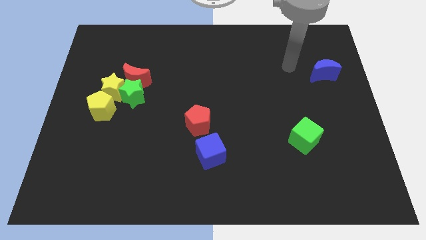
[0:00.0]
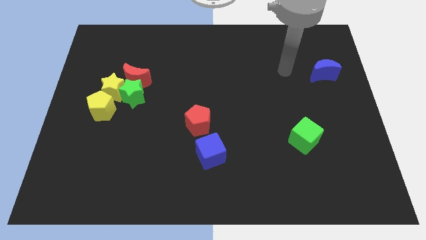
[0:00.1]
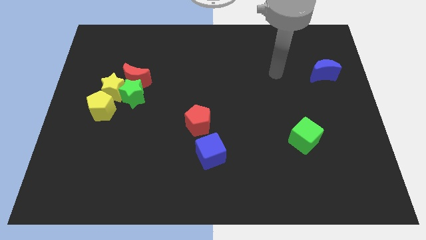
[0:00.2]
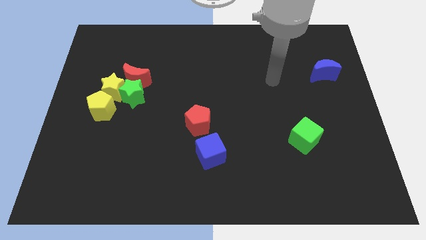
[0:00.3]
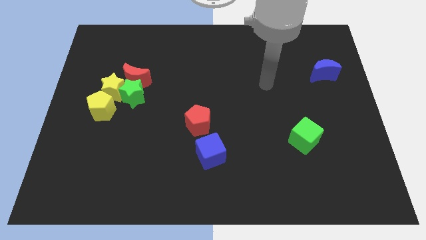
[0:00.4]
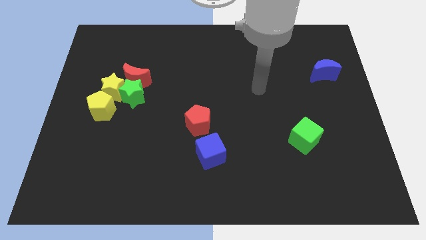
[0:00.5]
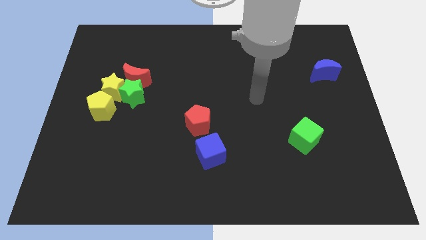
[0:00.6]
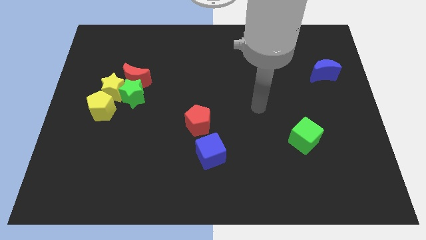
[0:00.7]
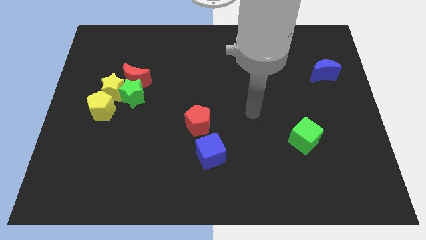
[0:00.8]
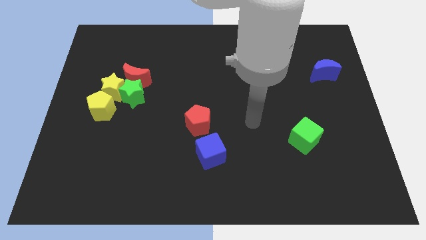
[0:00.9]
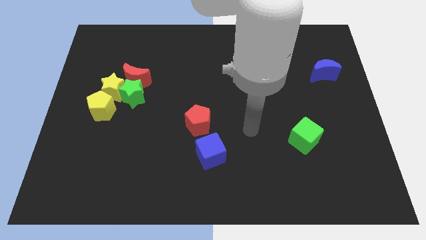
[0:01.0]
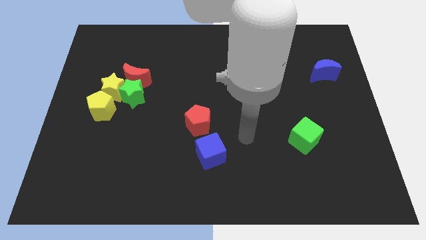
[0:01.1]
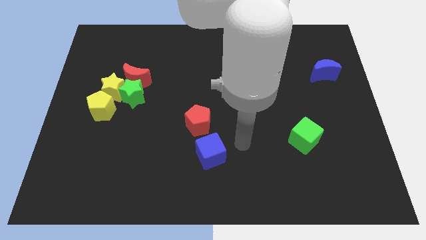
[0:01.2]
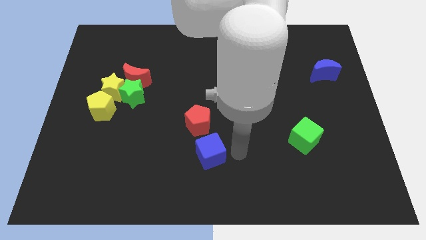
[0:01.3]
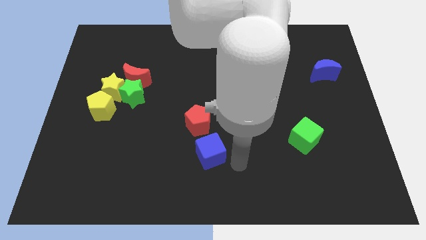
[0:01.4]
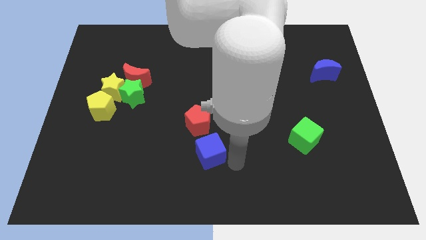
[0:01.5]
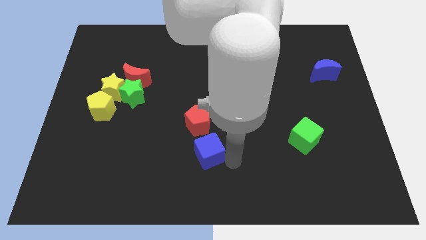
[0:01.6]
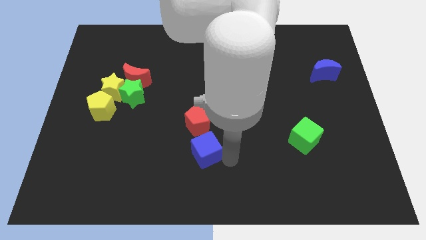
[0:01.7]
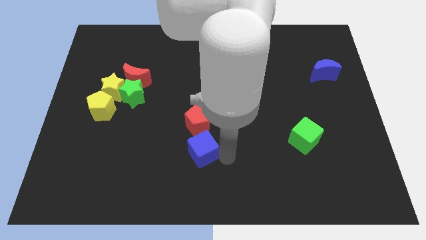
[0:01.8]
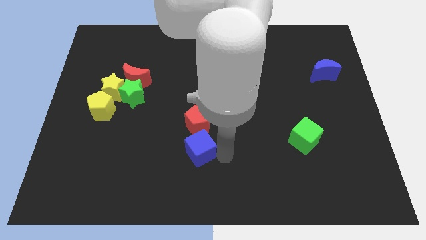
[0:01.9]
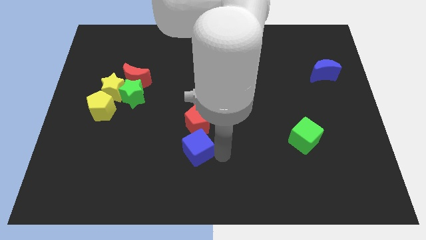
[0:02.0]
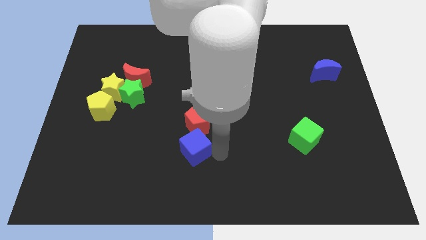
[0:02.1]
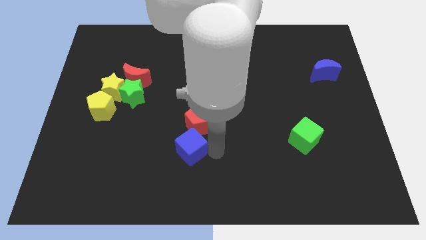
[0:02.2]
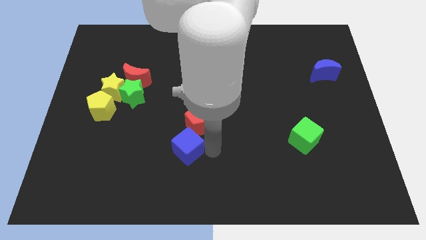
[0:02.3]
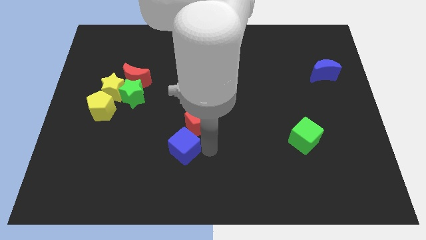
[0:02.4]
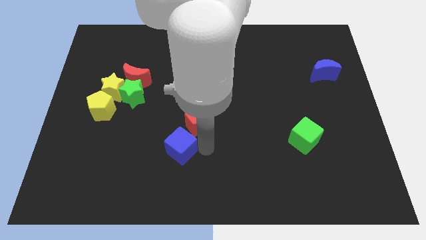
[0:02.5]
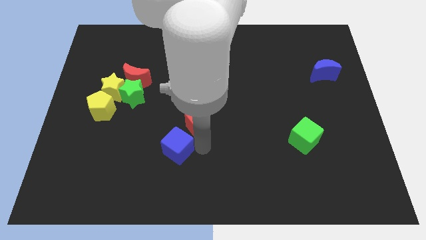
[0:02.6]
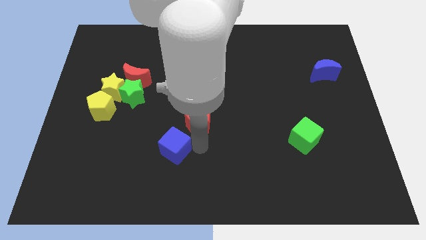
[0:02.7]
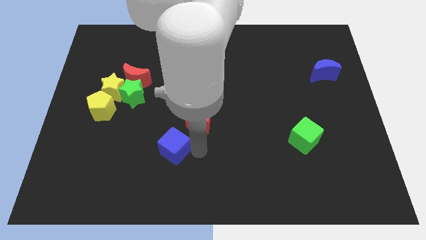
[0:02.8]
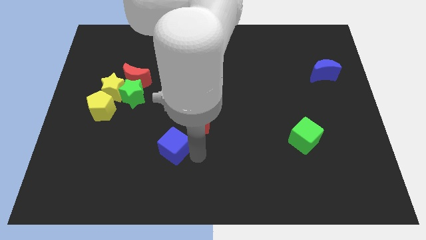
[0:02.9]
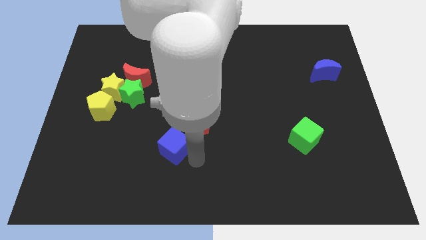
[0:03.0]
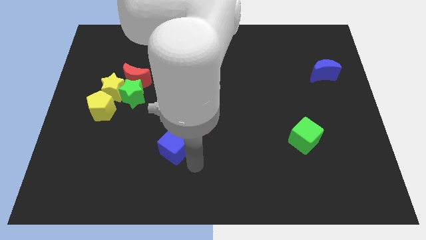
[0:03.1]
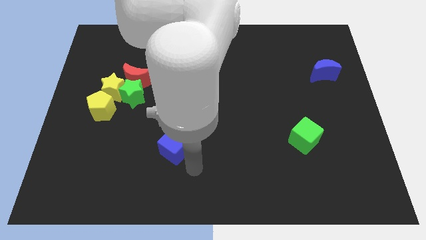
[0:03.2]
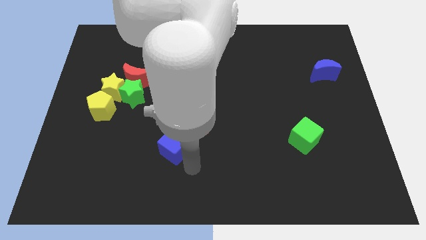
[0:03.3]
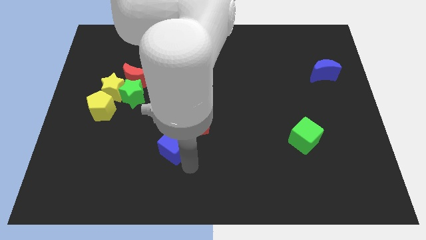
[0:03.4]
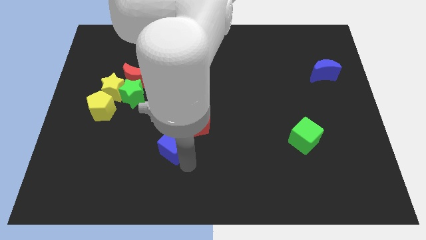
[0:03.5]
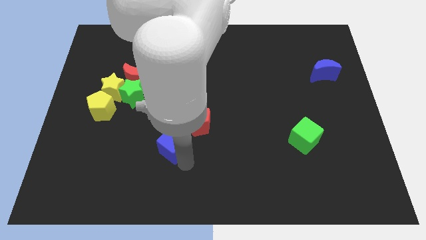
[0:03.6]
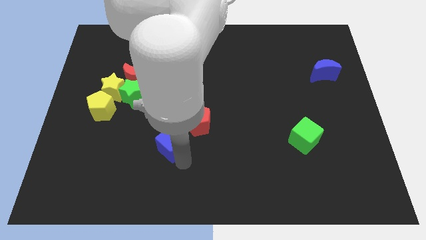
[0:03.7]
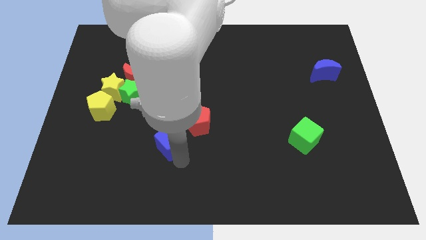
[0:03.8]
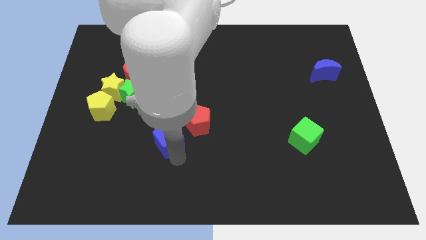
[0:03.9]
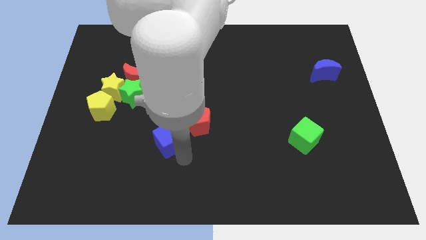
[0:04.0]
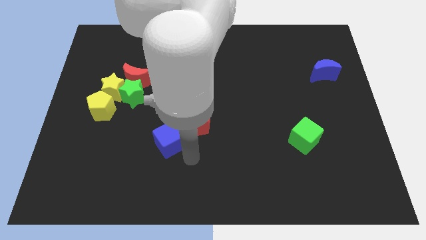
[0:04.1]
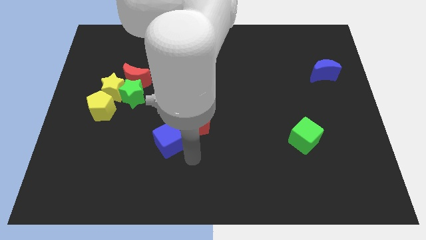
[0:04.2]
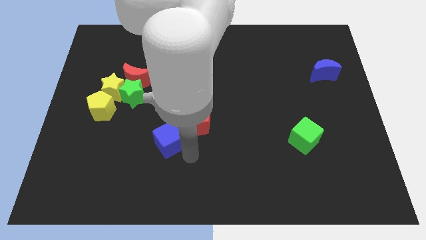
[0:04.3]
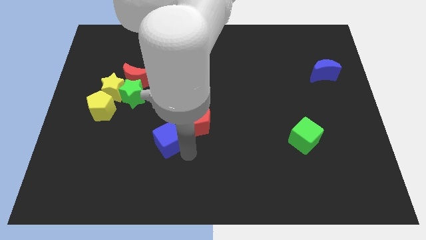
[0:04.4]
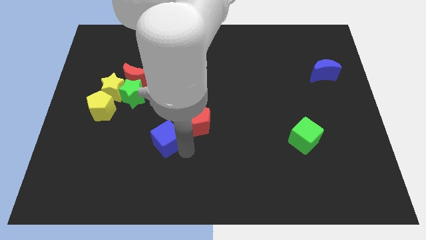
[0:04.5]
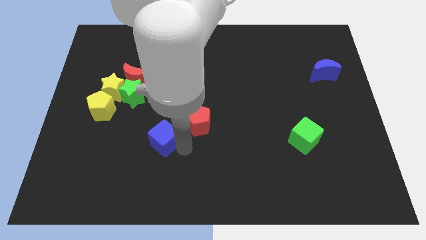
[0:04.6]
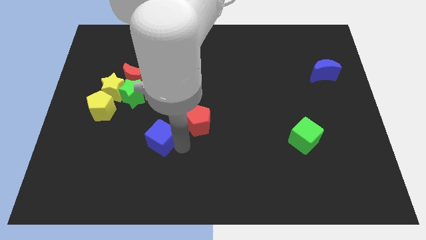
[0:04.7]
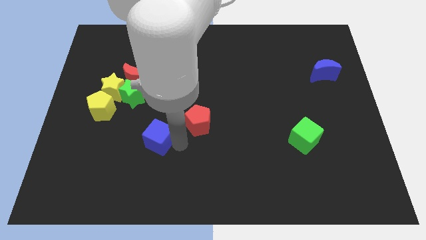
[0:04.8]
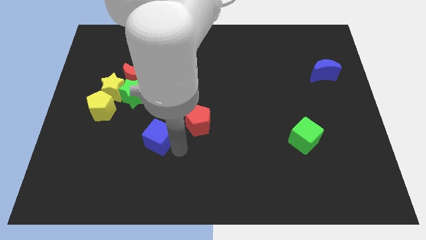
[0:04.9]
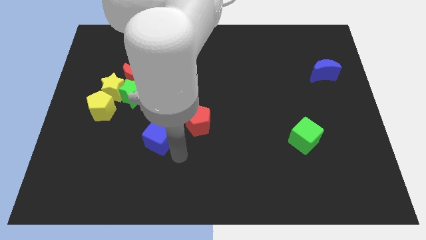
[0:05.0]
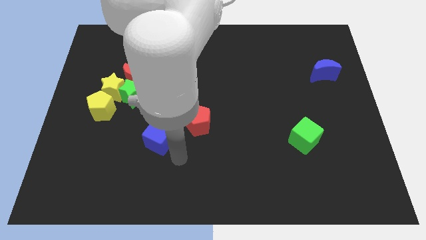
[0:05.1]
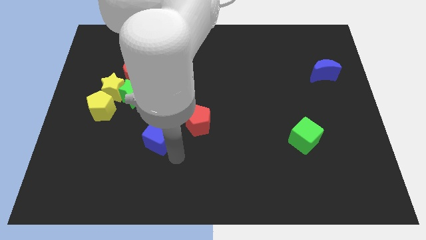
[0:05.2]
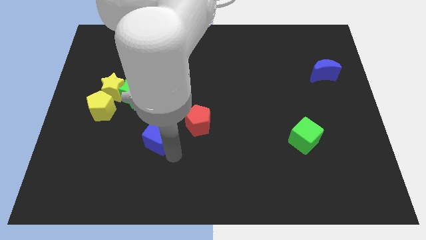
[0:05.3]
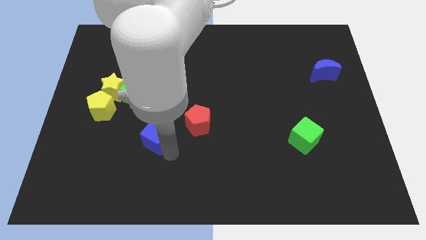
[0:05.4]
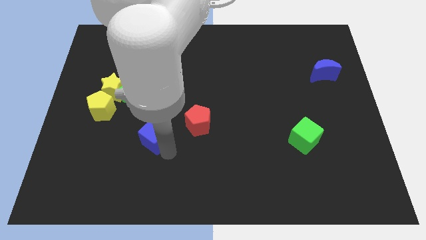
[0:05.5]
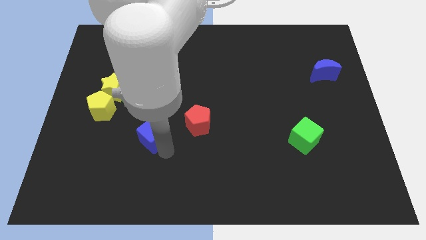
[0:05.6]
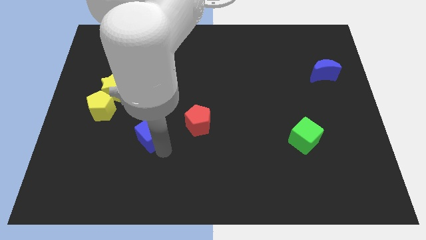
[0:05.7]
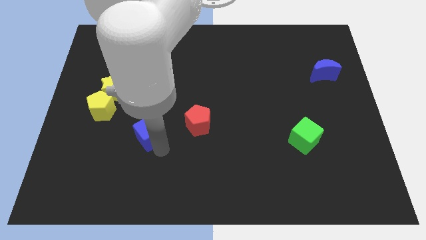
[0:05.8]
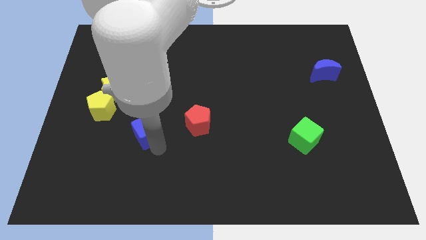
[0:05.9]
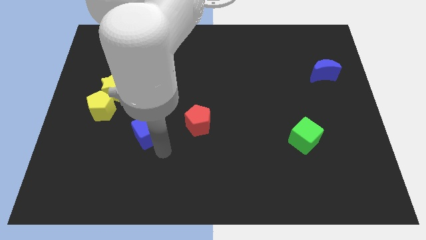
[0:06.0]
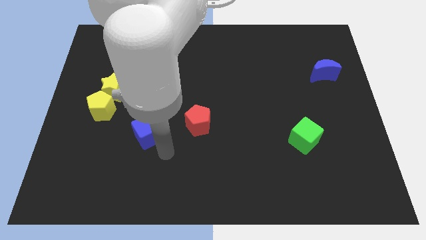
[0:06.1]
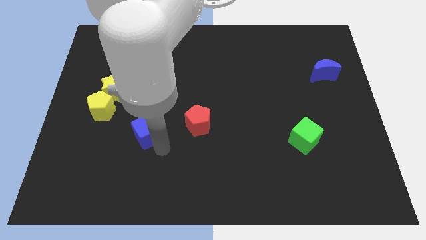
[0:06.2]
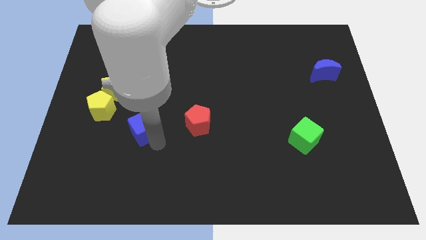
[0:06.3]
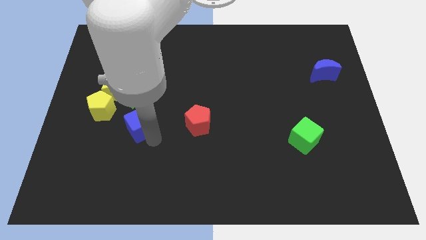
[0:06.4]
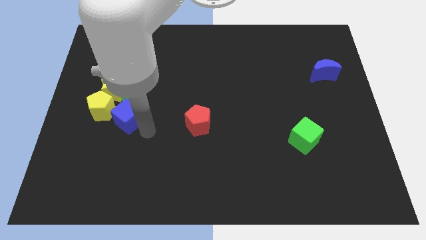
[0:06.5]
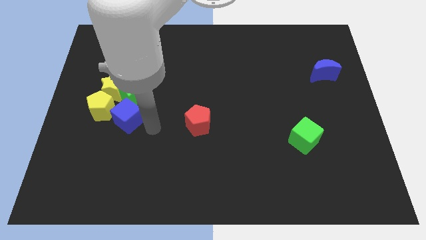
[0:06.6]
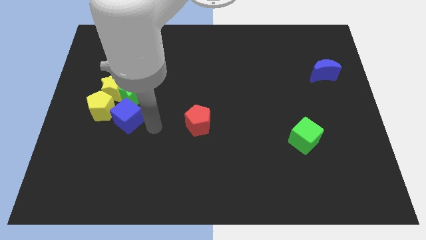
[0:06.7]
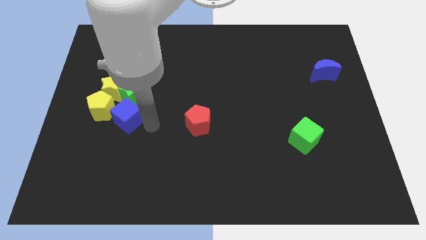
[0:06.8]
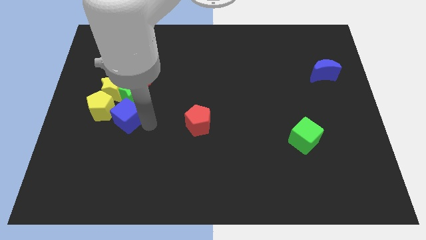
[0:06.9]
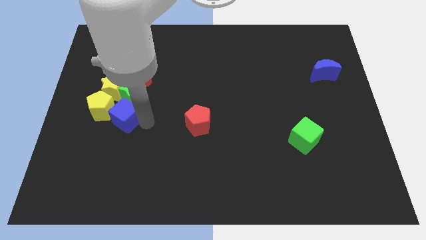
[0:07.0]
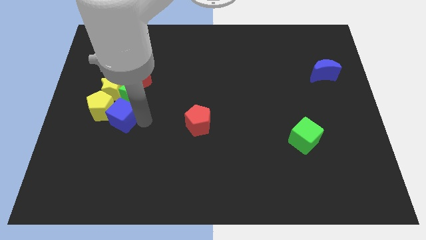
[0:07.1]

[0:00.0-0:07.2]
put the blue cube to the yellow pentagon

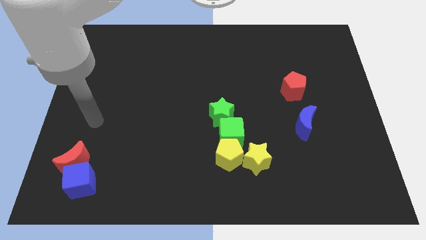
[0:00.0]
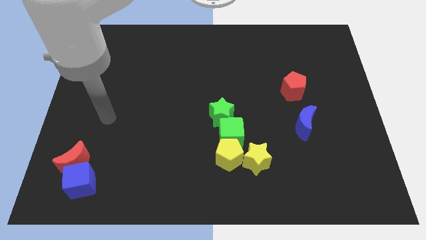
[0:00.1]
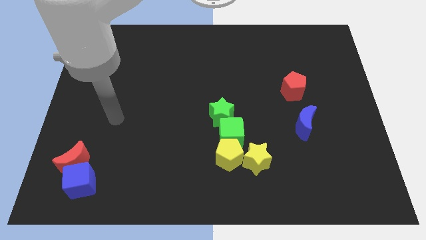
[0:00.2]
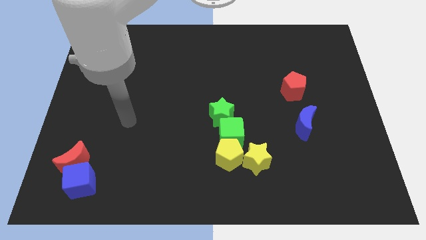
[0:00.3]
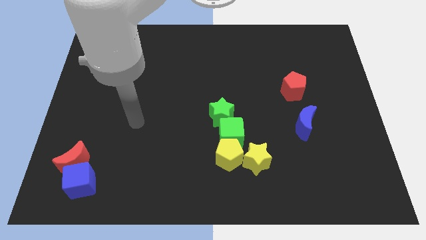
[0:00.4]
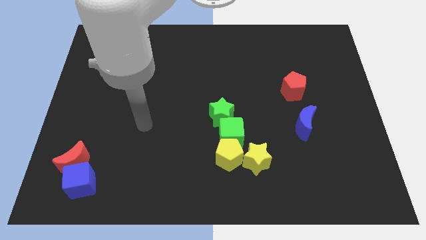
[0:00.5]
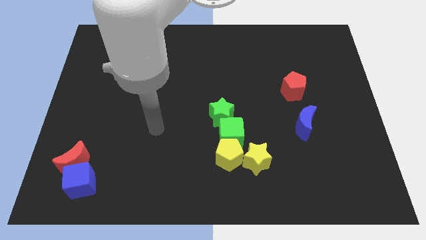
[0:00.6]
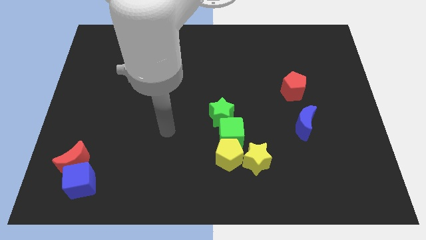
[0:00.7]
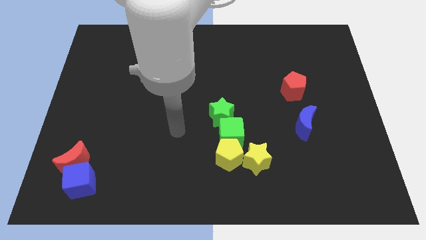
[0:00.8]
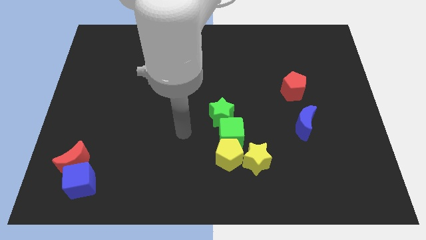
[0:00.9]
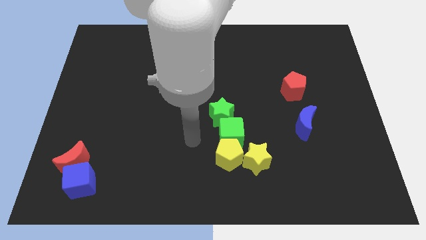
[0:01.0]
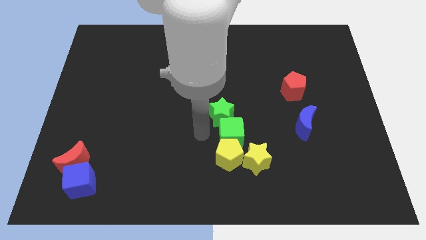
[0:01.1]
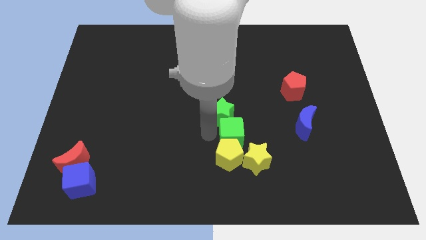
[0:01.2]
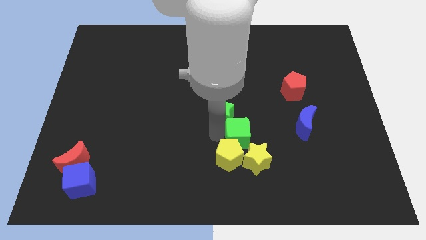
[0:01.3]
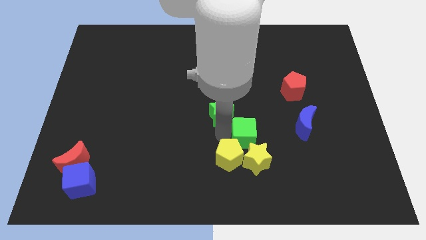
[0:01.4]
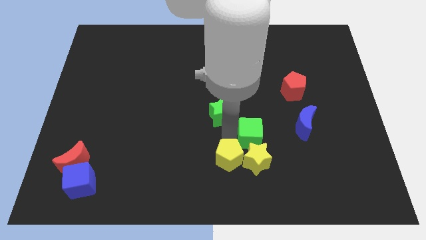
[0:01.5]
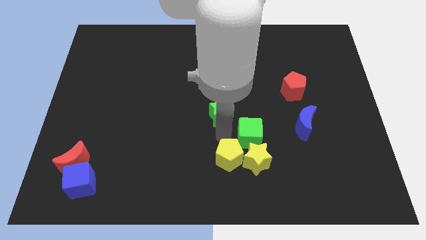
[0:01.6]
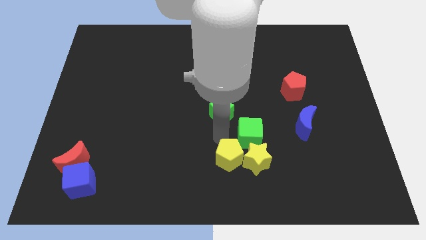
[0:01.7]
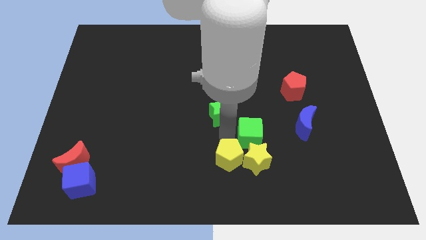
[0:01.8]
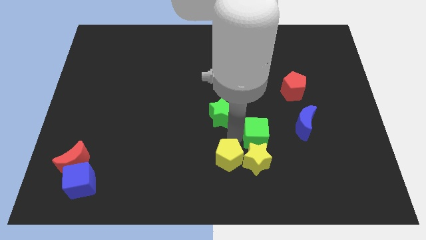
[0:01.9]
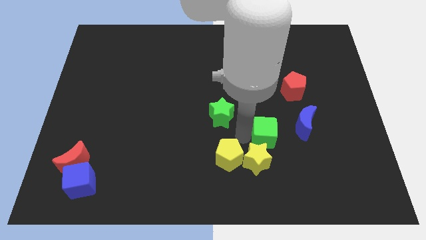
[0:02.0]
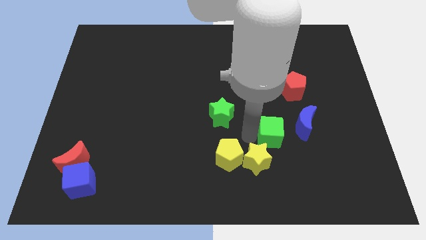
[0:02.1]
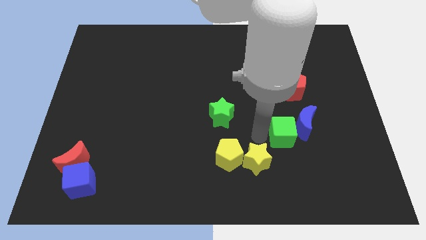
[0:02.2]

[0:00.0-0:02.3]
push the green cube towards the blue moon
